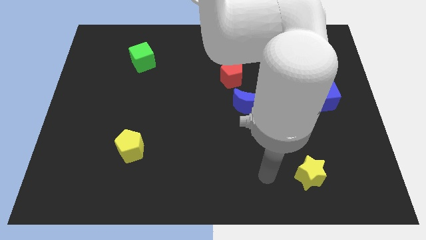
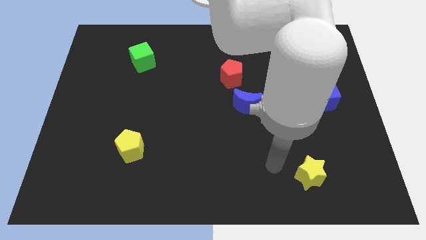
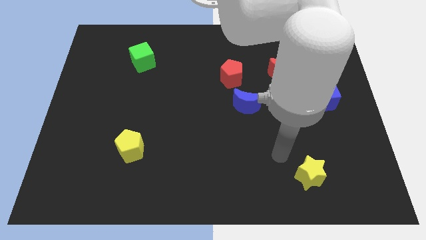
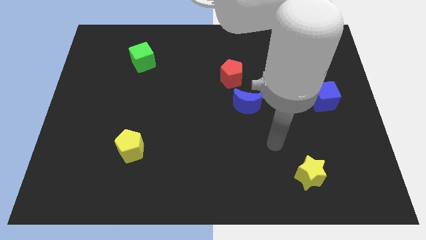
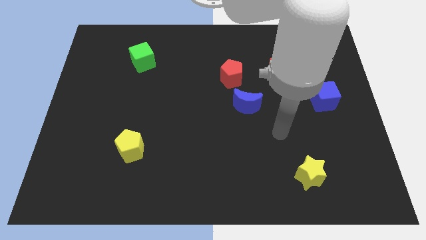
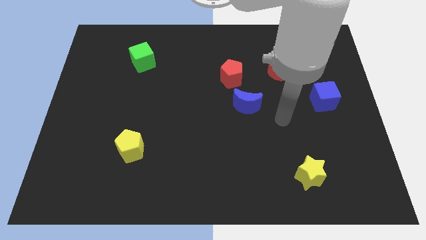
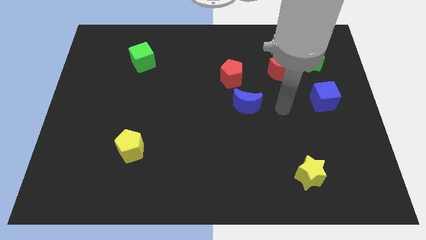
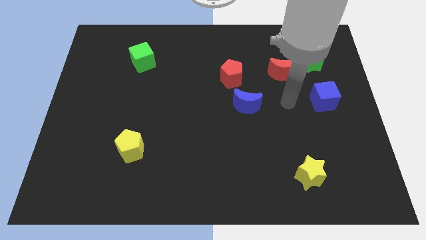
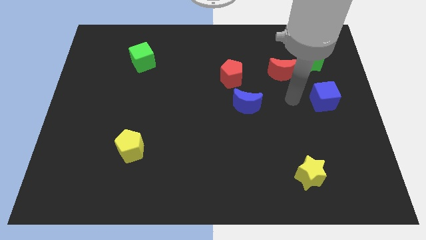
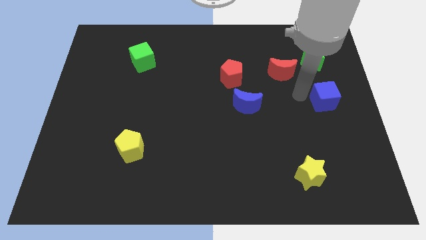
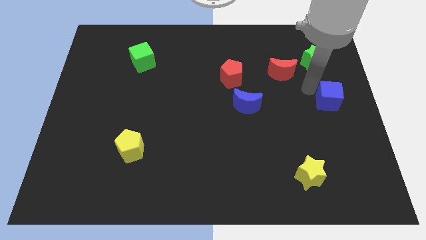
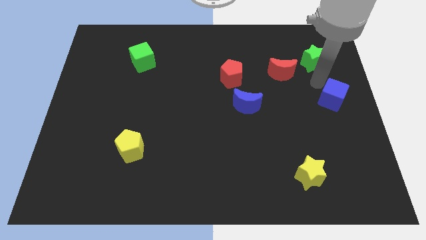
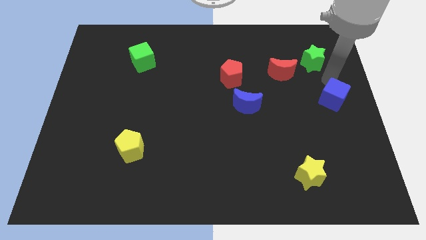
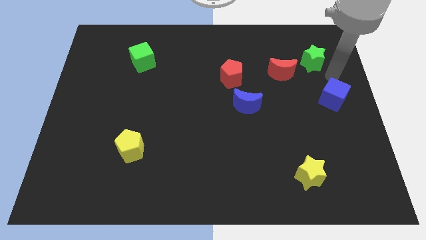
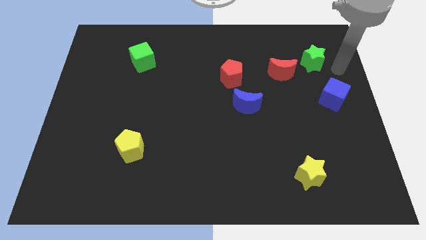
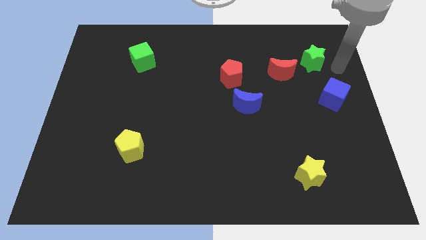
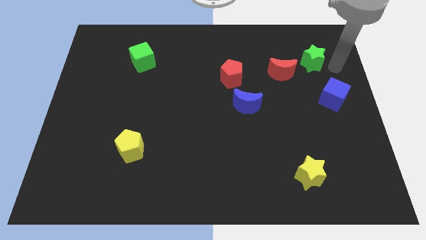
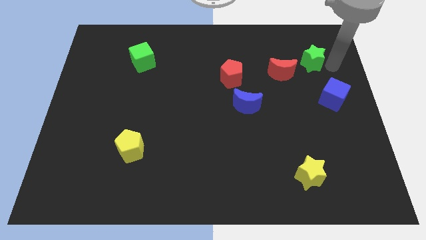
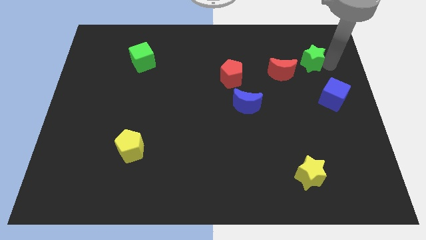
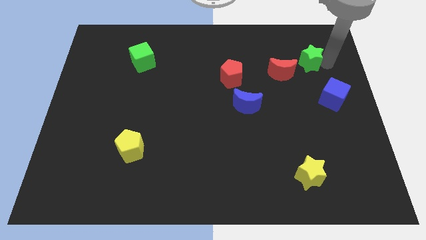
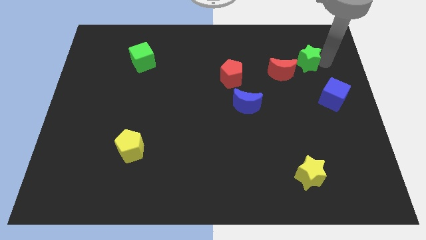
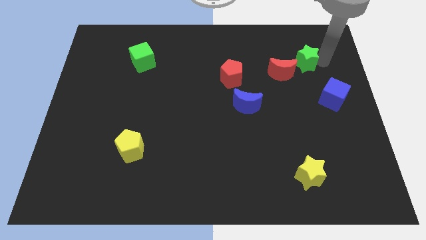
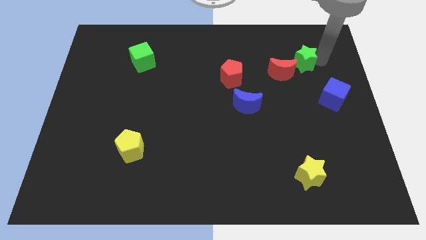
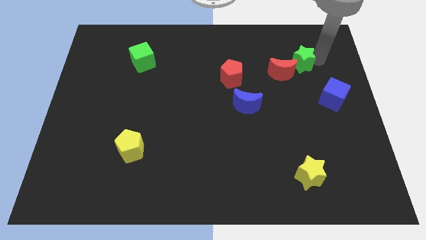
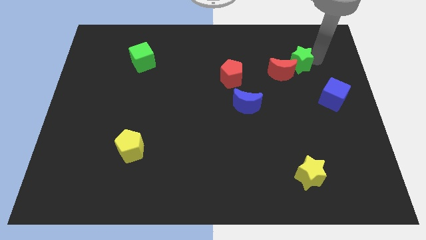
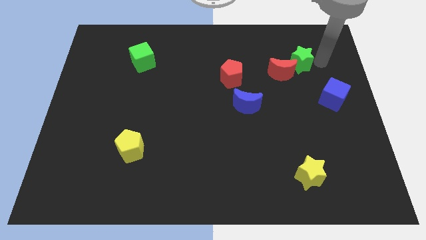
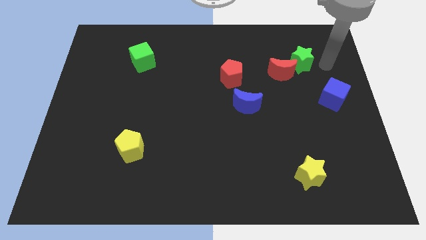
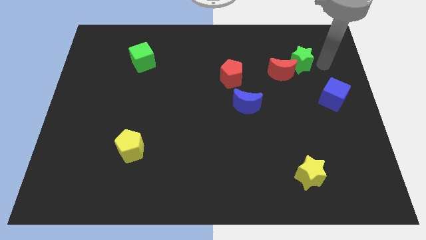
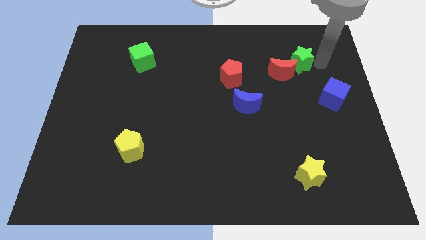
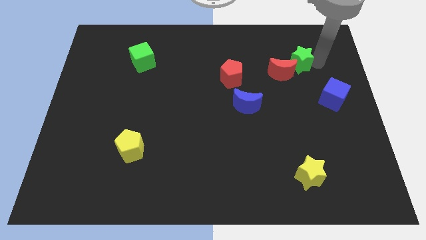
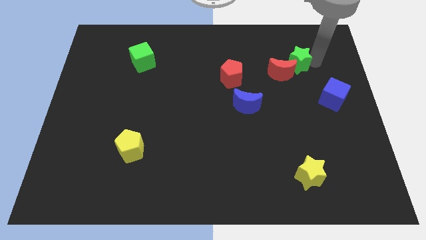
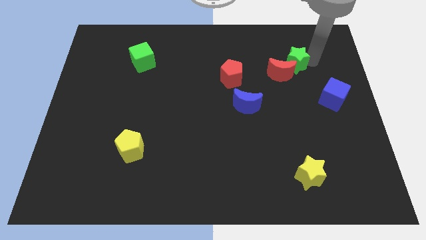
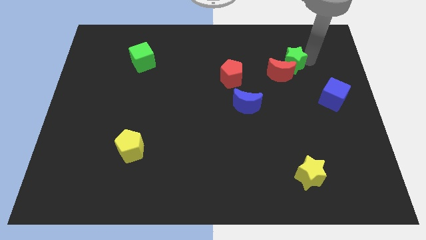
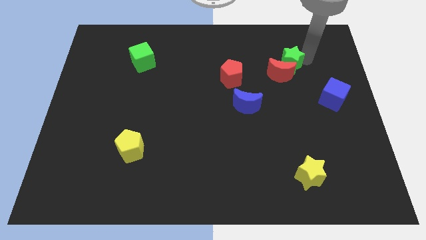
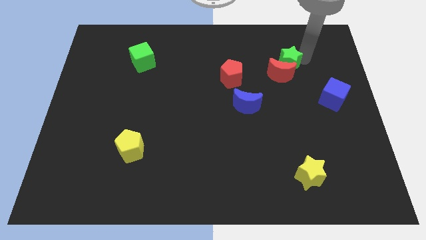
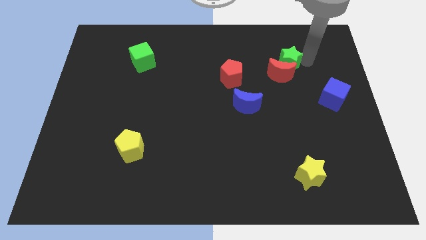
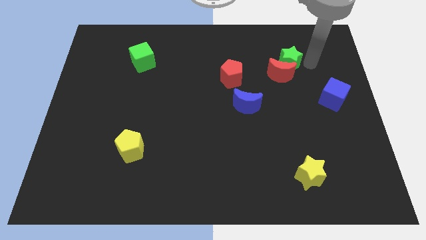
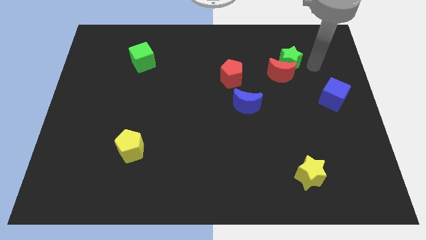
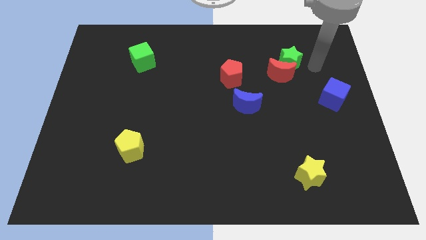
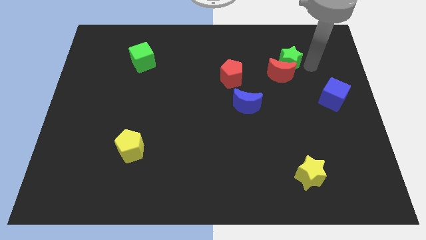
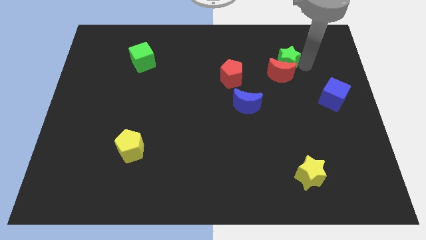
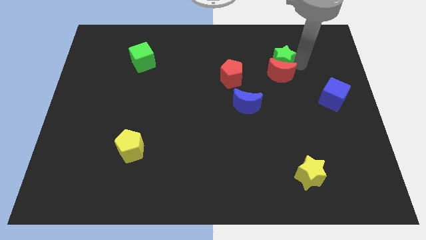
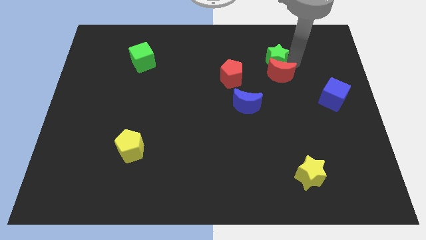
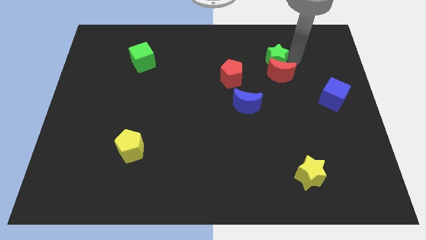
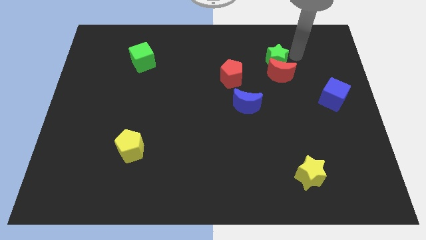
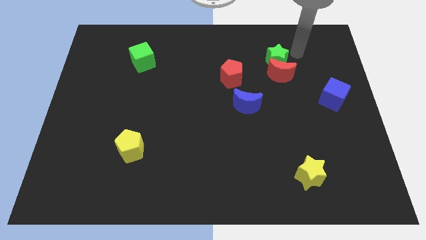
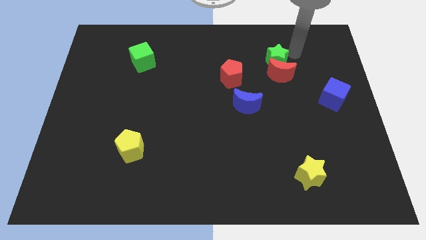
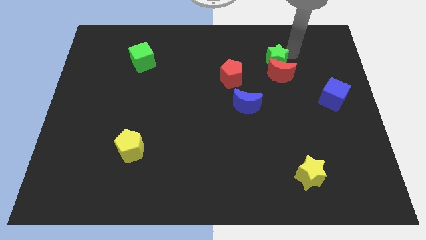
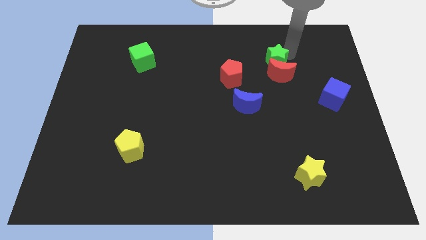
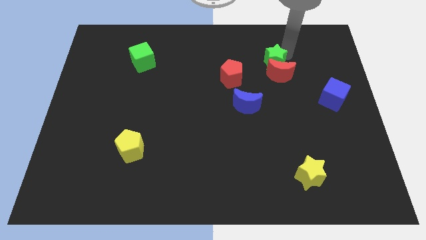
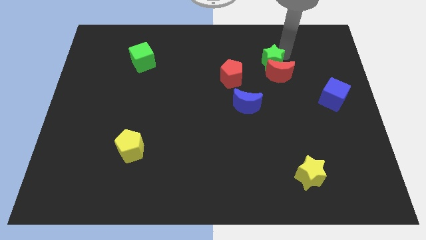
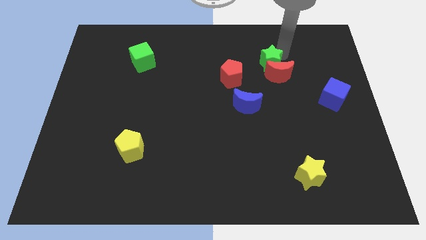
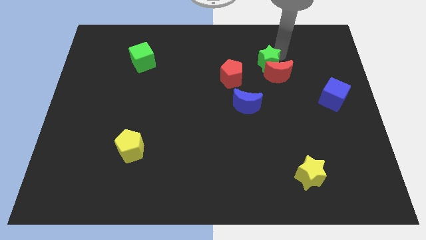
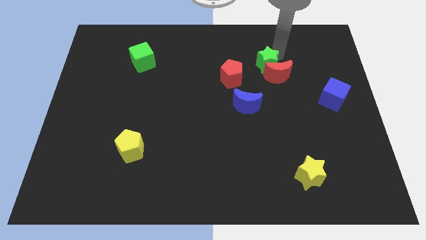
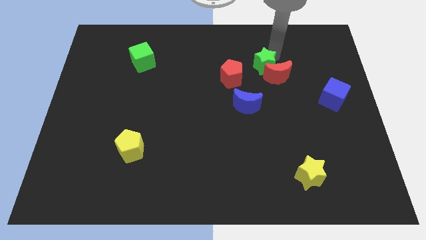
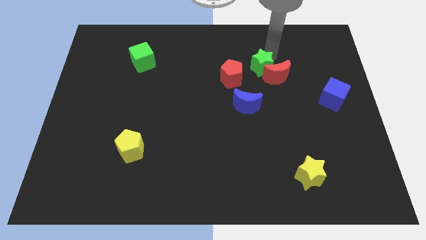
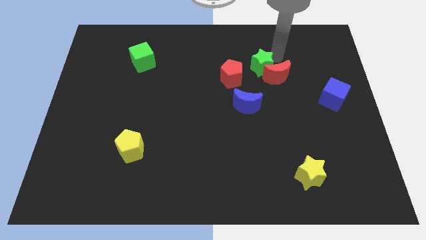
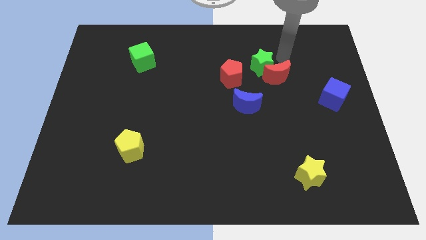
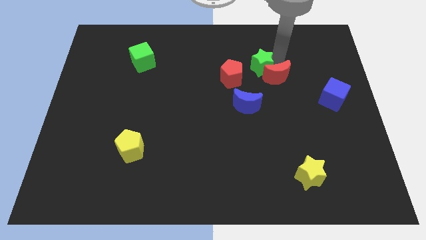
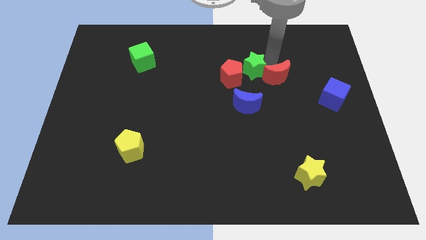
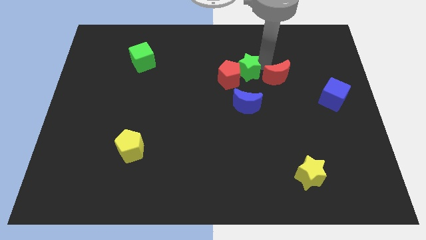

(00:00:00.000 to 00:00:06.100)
put the green star next to the red pentagon

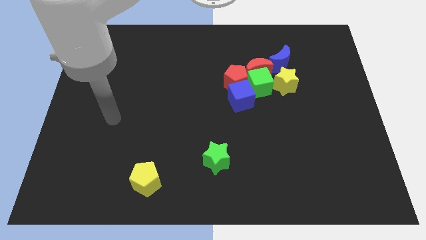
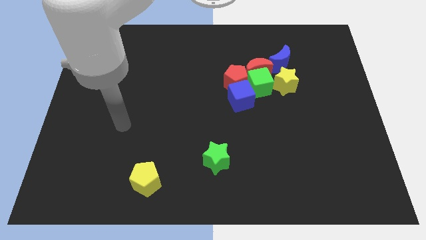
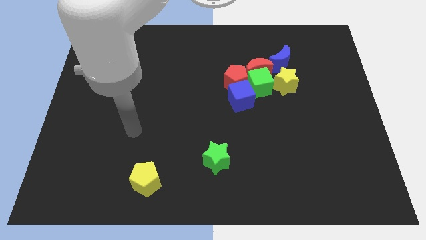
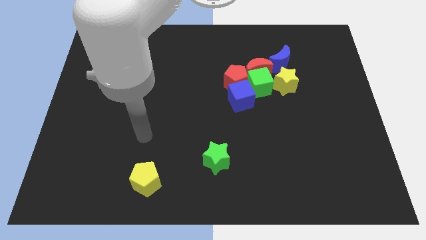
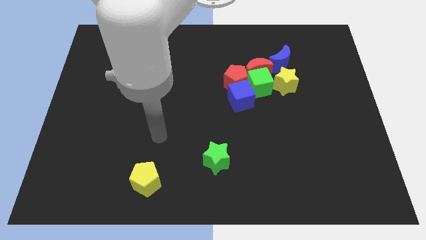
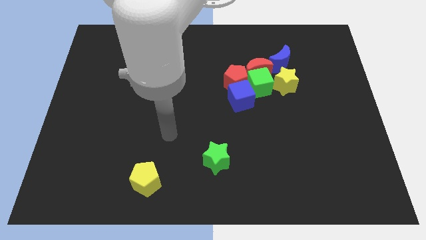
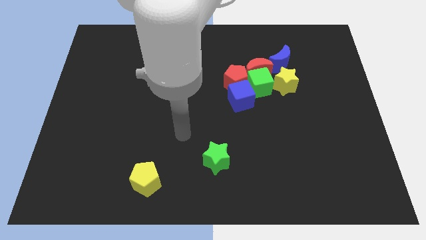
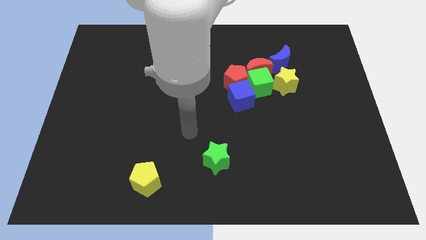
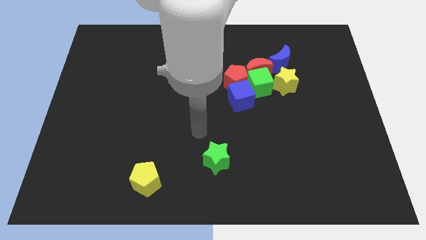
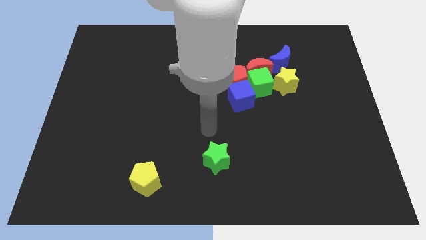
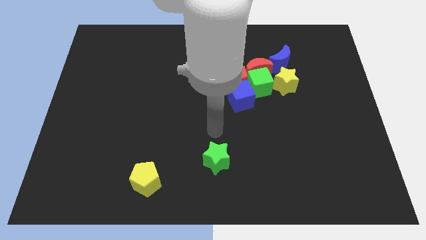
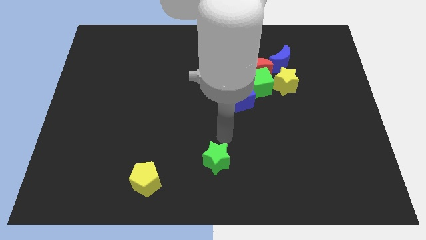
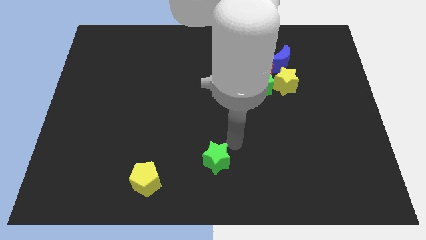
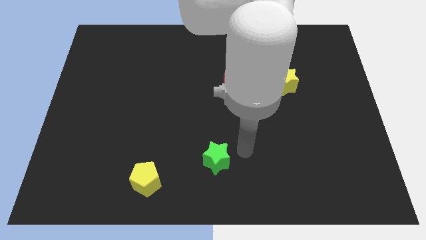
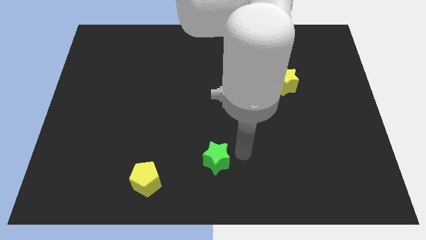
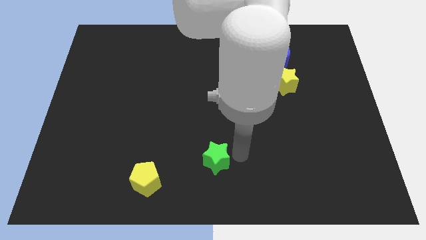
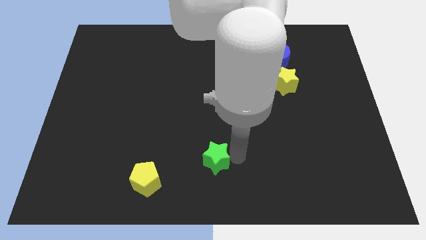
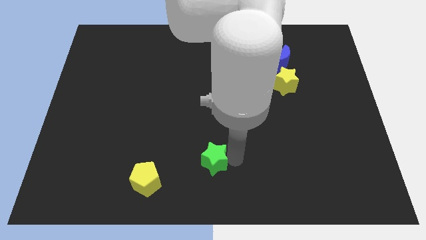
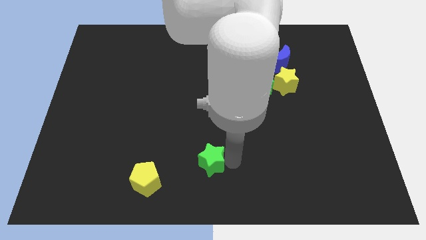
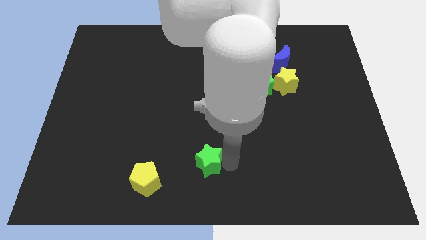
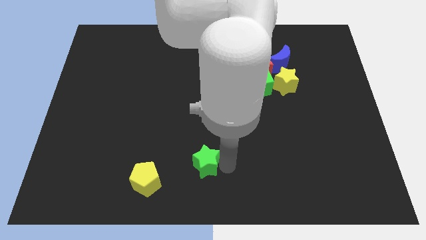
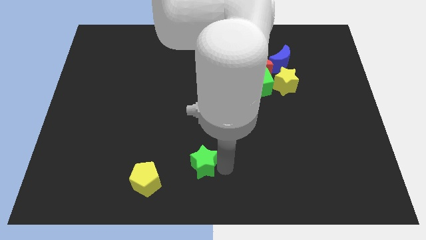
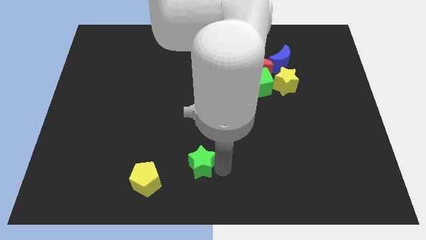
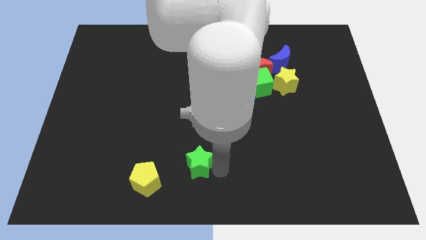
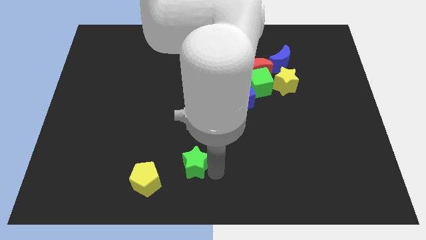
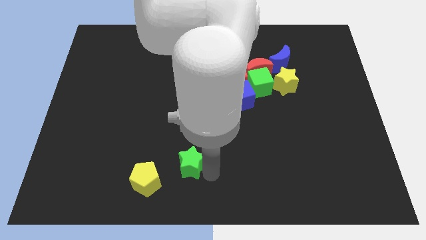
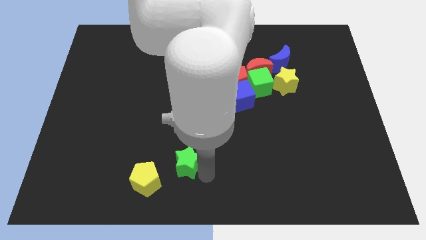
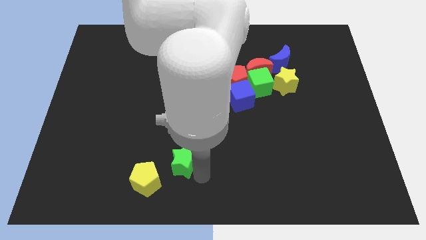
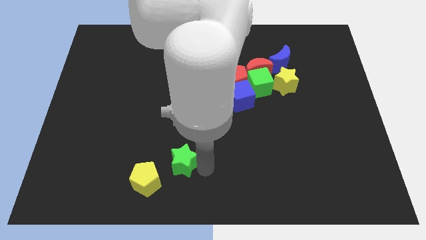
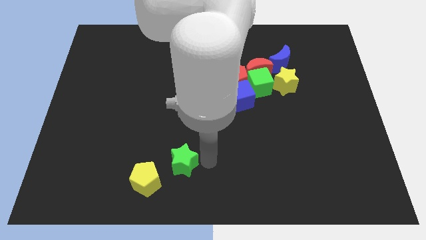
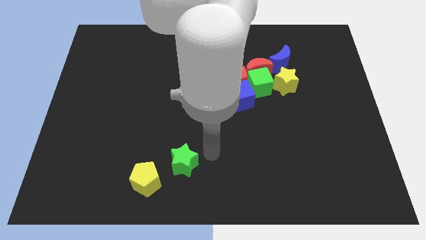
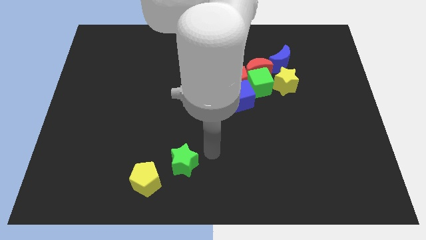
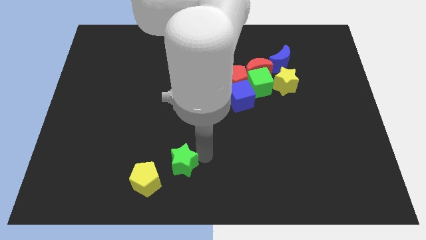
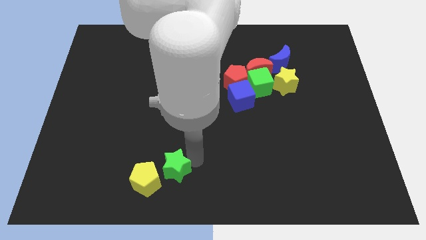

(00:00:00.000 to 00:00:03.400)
move the green star close to the yellow pentagon
